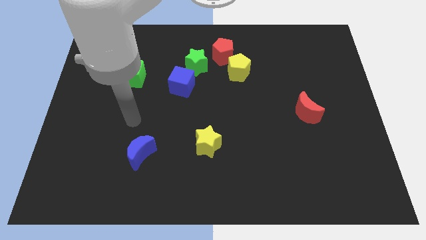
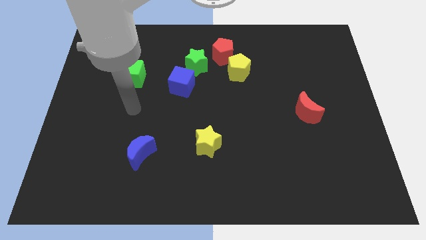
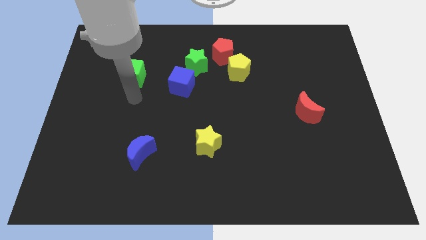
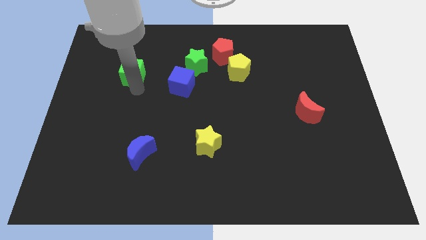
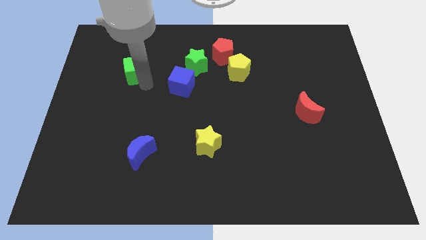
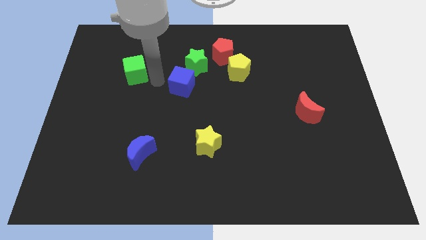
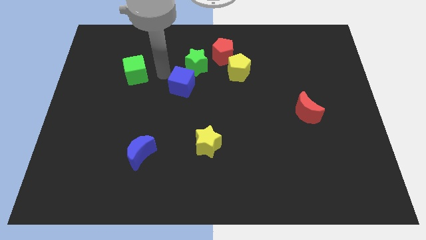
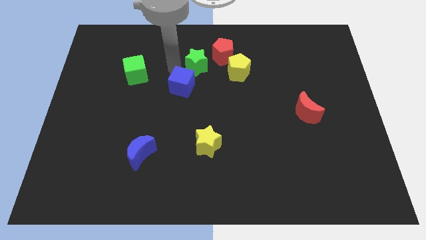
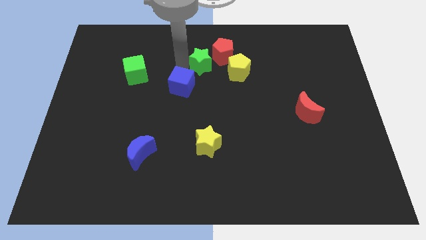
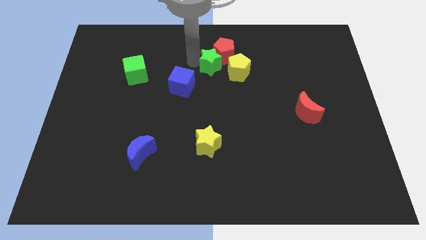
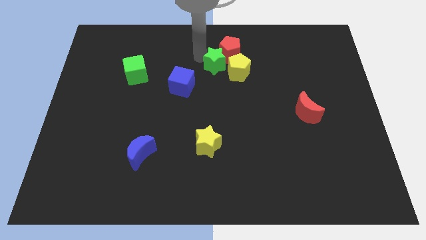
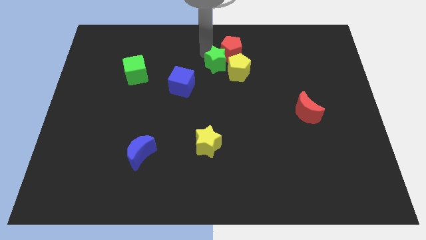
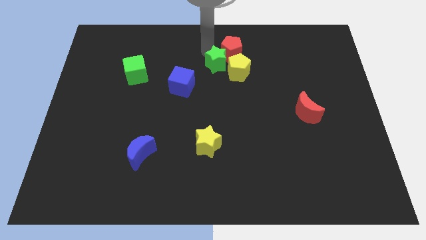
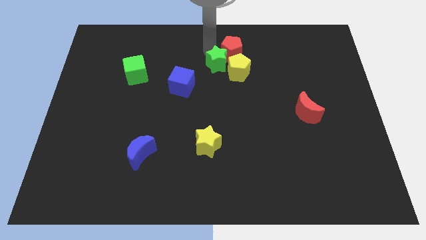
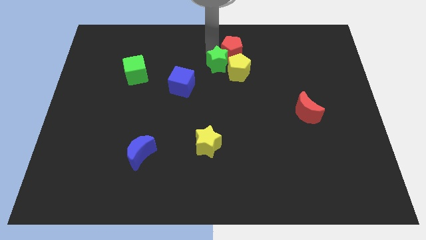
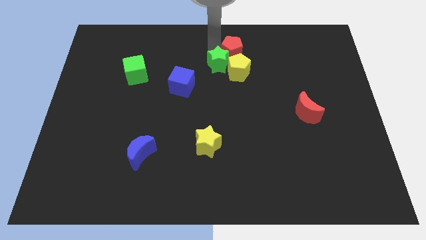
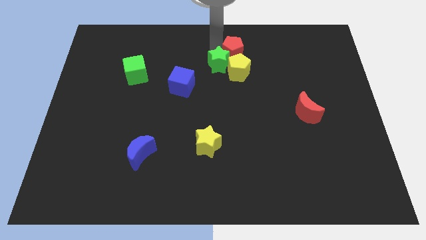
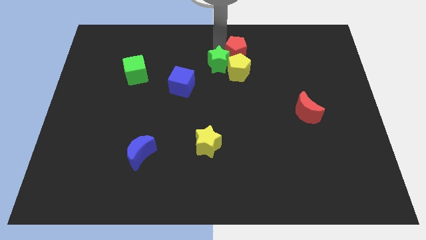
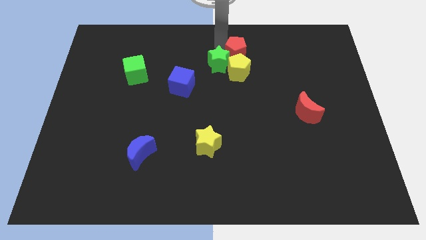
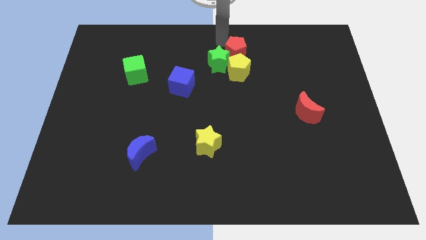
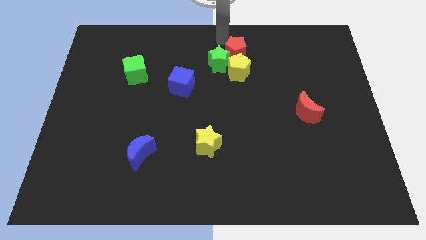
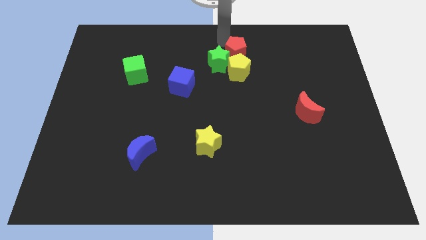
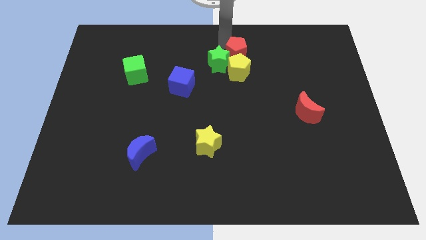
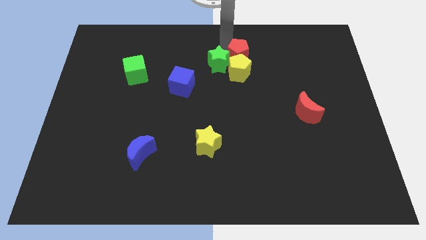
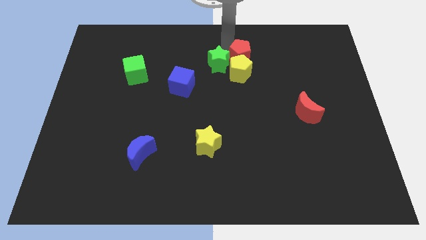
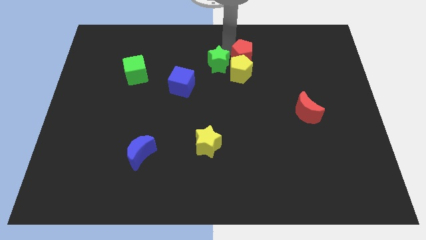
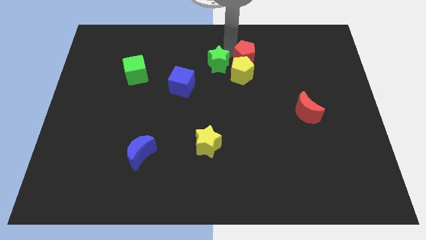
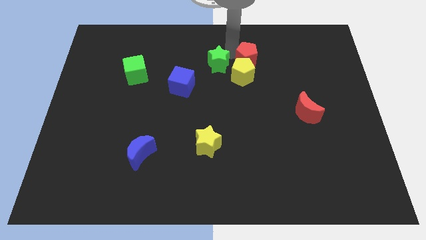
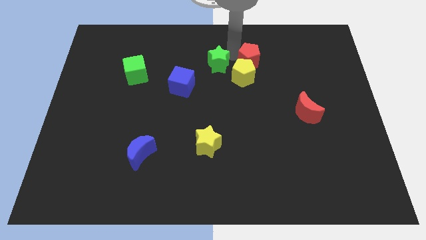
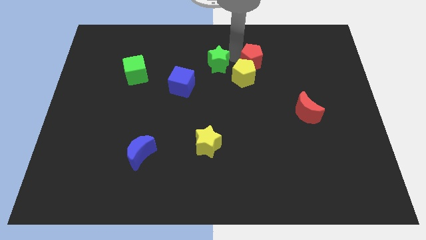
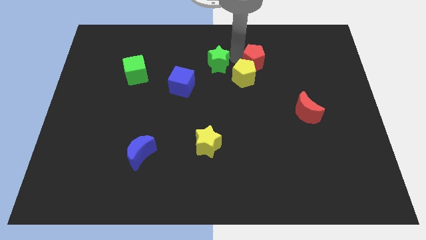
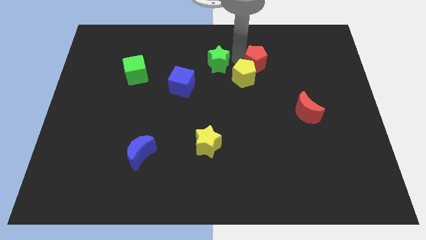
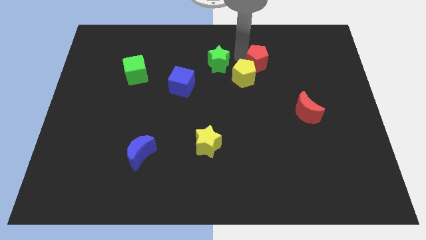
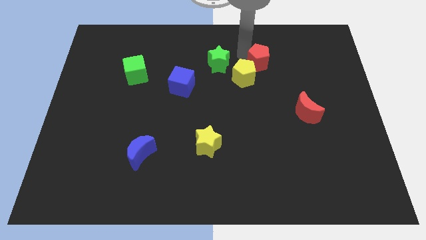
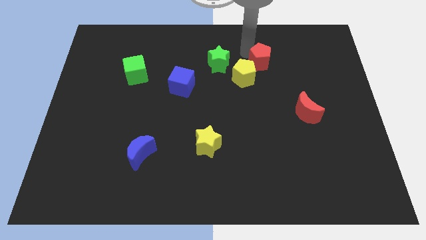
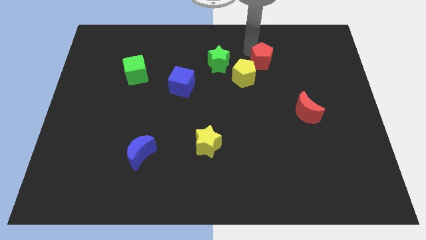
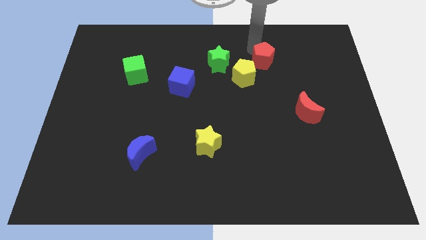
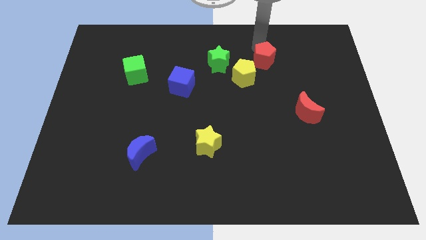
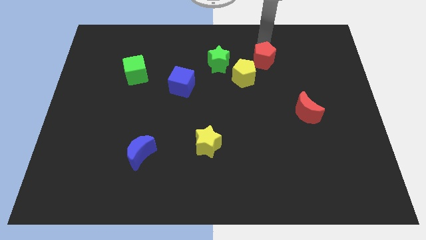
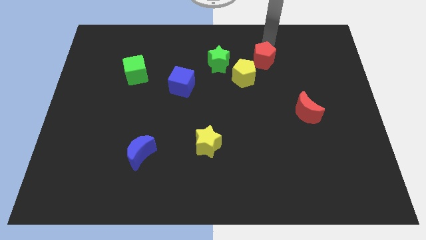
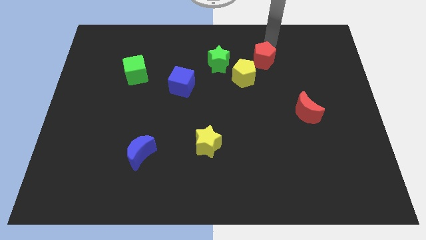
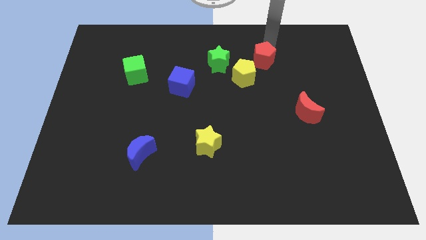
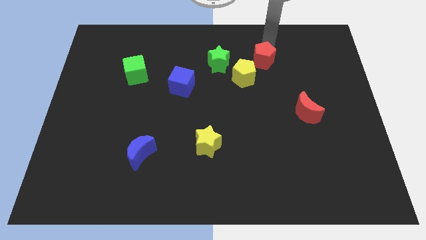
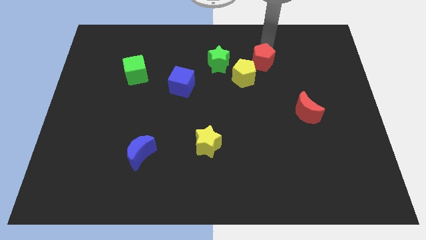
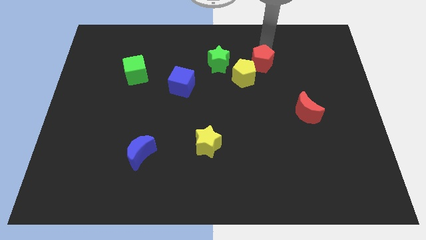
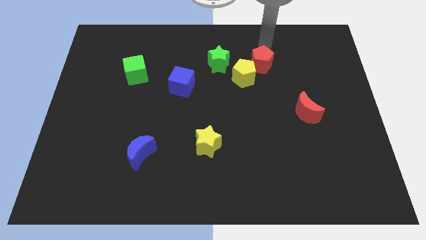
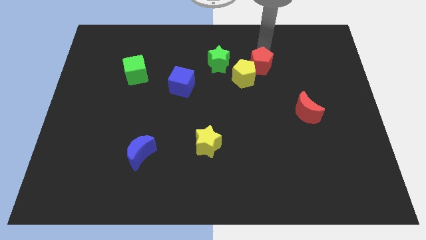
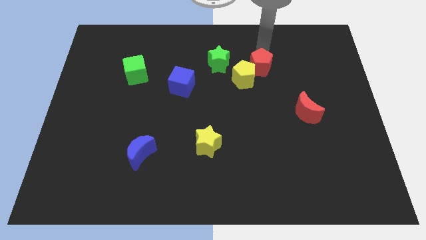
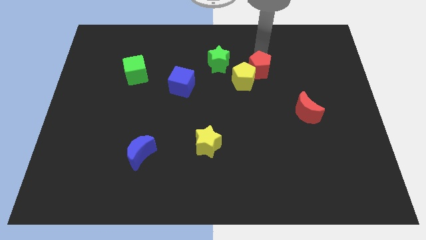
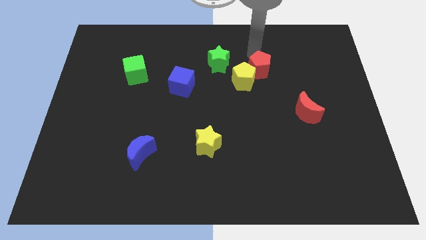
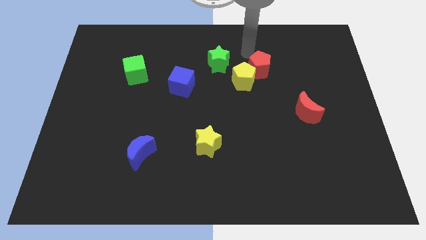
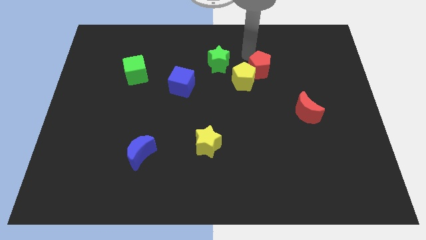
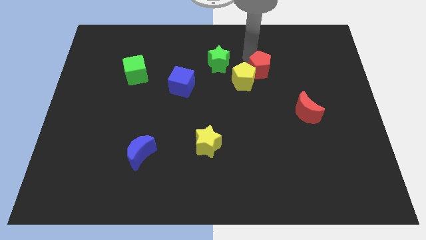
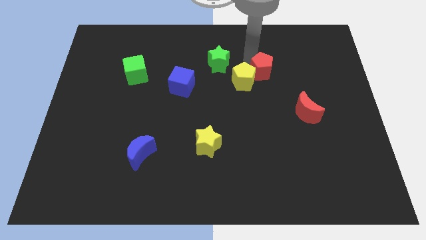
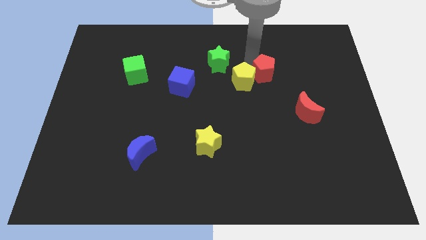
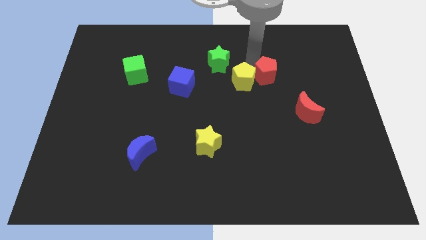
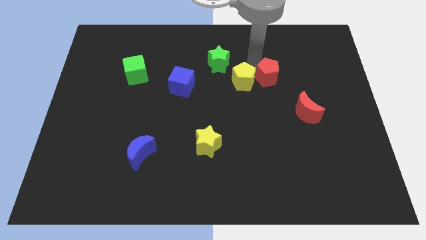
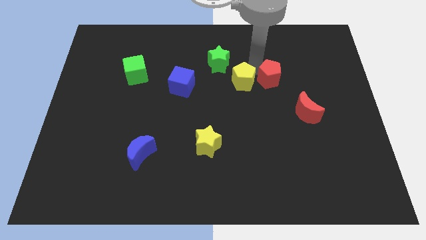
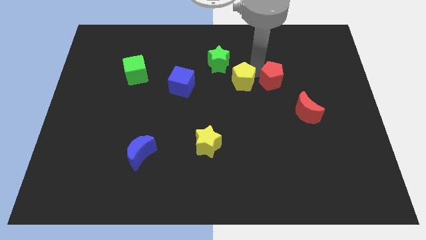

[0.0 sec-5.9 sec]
move the red pentagon to the top left side of the red moon

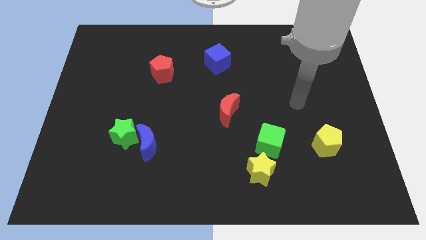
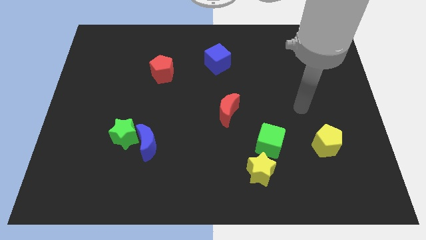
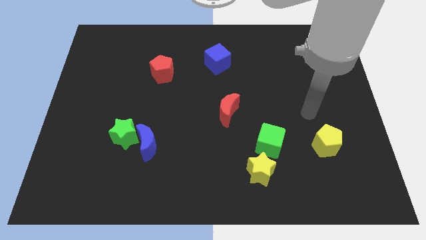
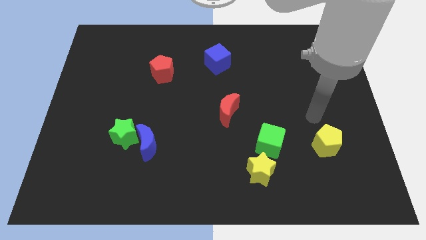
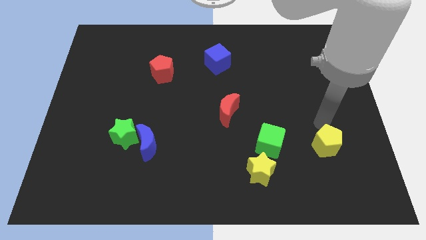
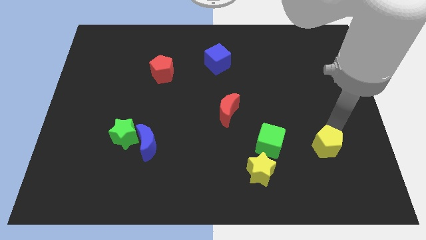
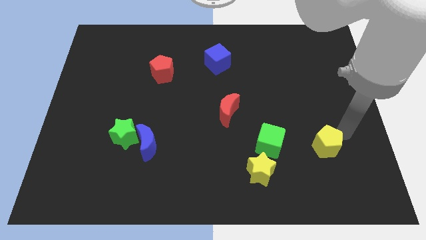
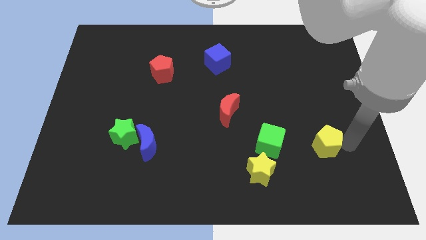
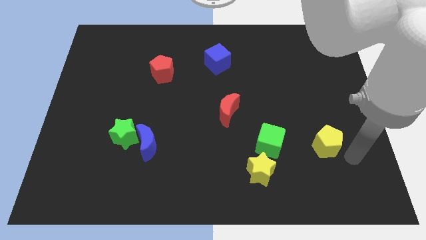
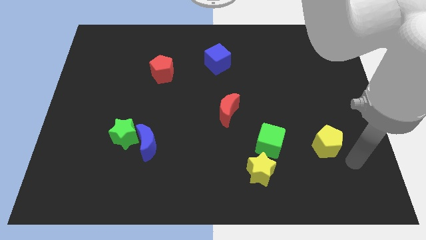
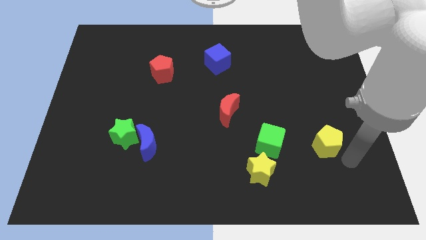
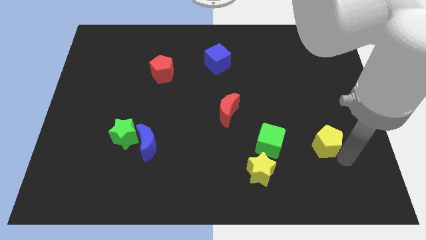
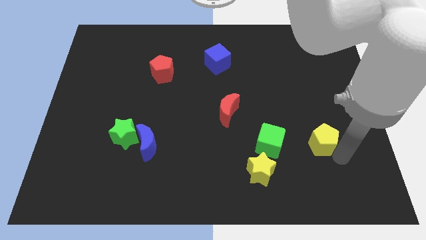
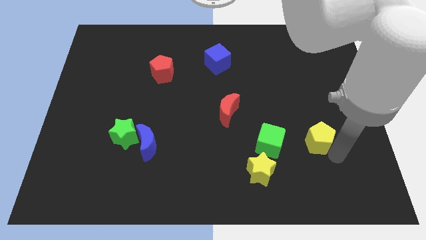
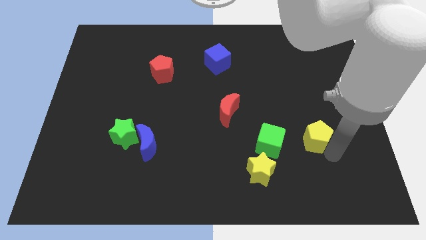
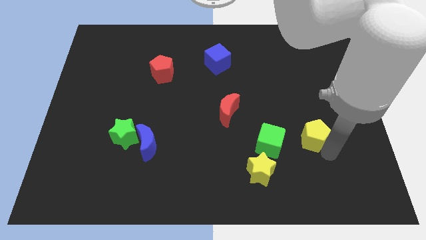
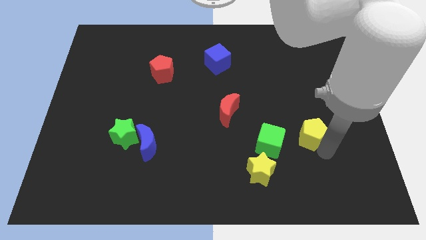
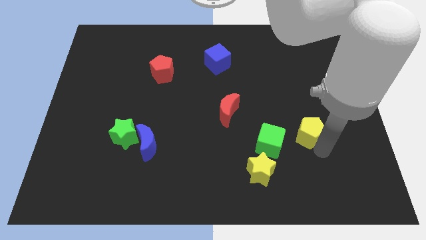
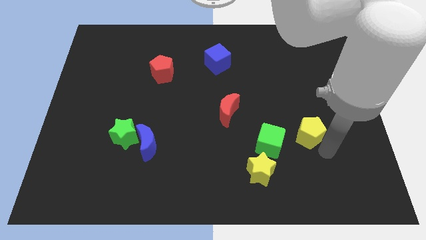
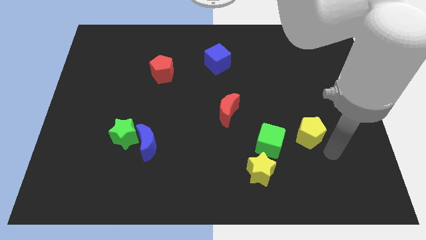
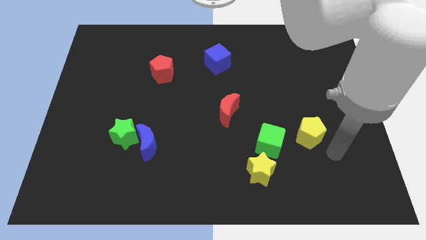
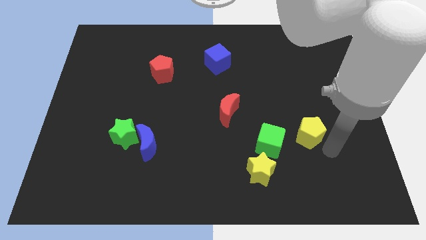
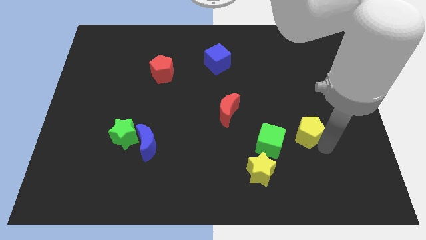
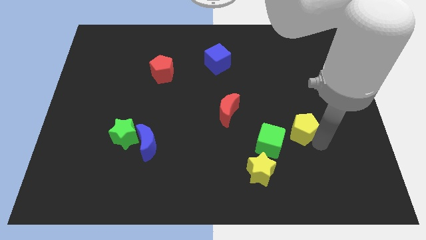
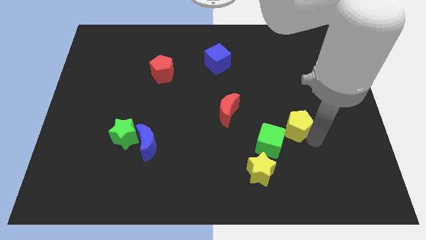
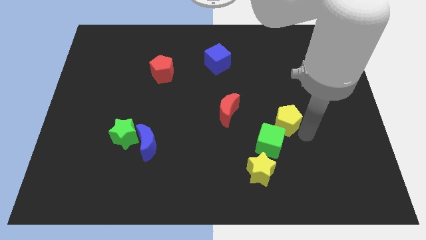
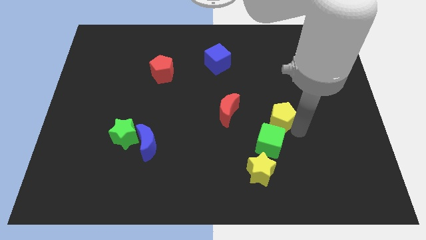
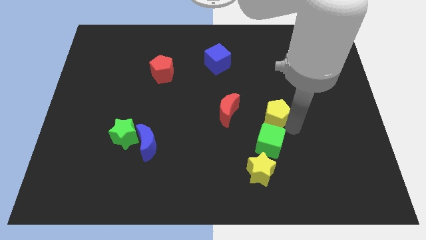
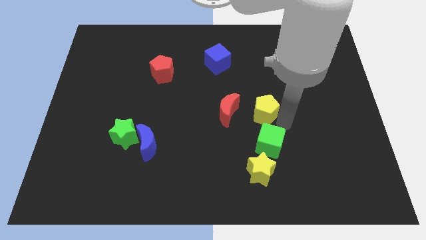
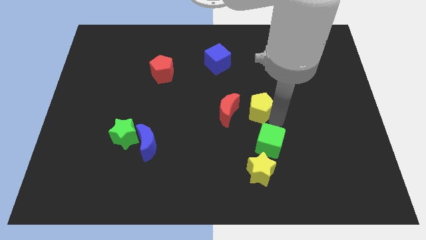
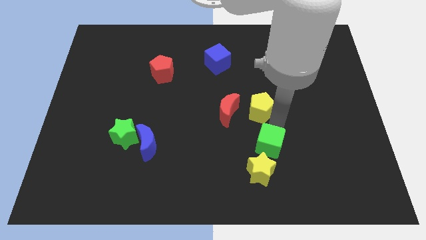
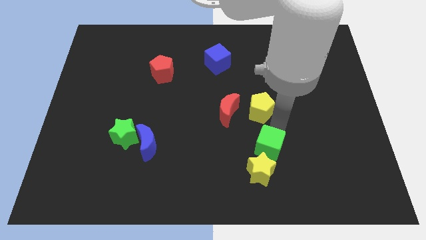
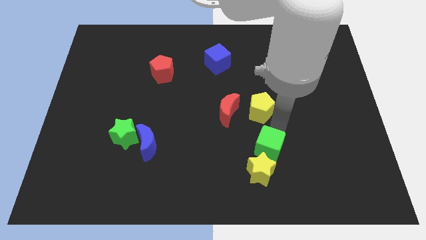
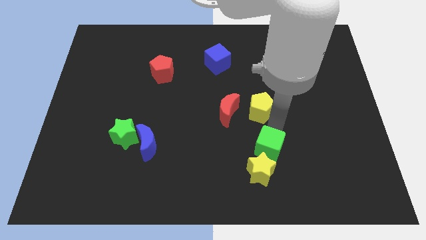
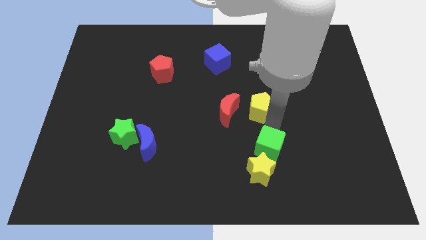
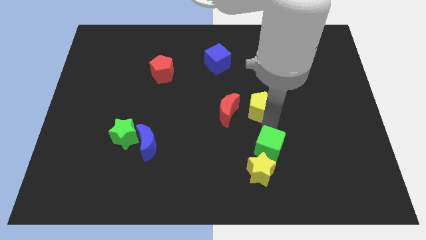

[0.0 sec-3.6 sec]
push the yellow pentagon to the top right of the red moon
